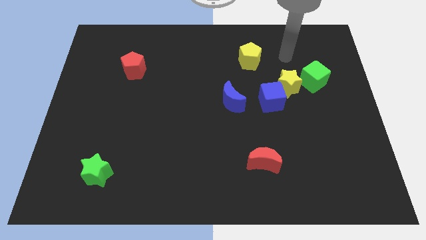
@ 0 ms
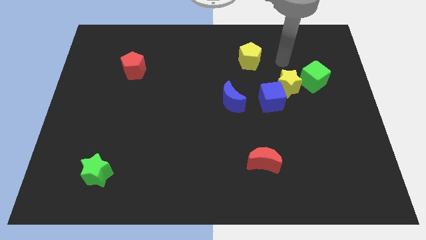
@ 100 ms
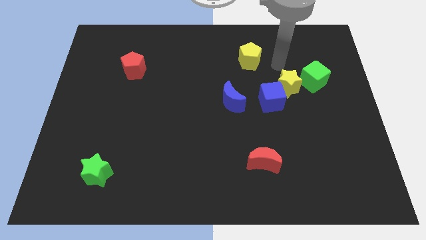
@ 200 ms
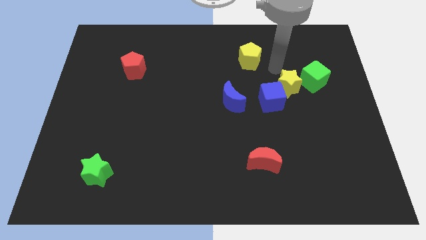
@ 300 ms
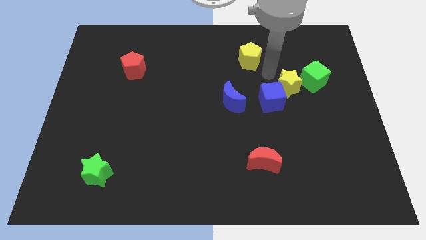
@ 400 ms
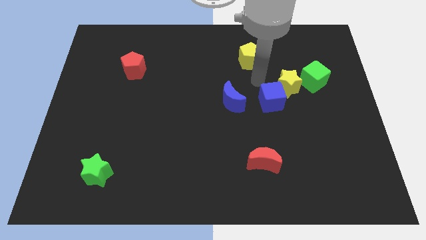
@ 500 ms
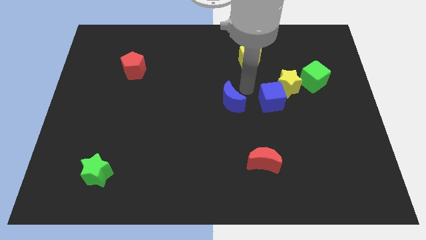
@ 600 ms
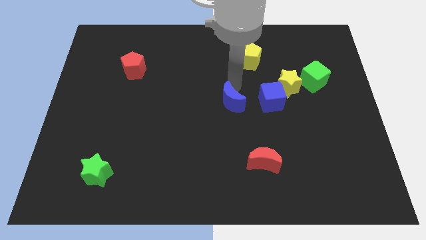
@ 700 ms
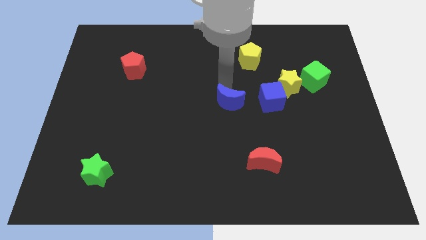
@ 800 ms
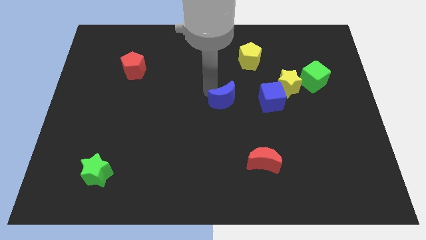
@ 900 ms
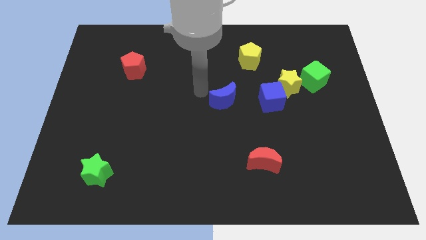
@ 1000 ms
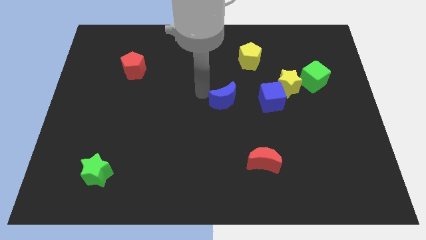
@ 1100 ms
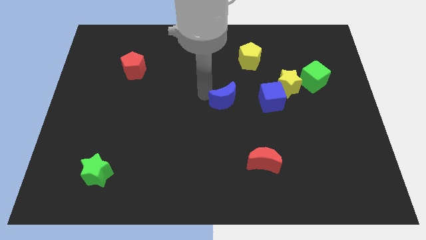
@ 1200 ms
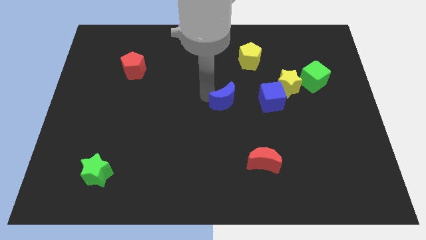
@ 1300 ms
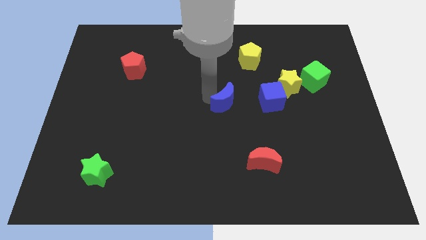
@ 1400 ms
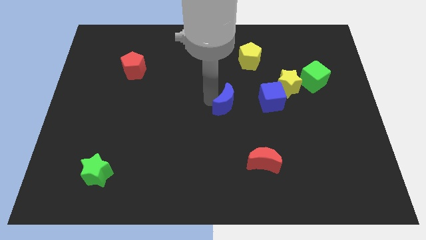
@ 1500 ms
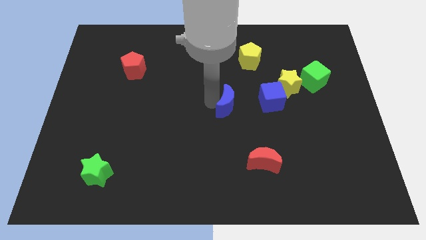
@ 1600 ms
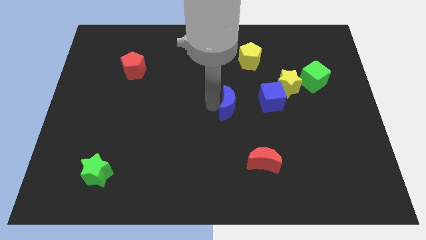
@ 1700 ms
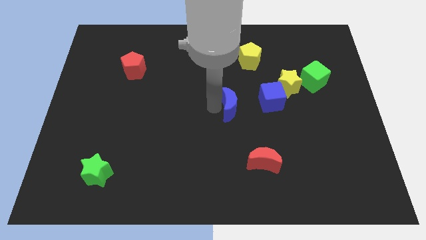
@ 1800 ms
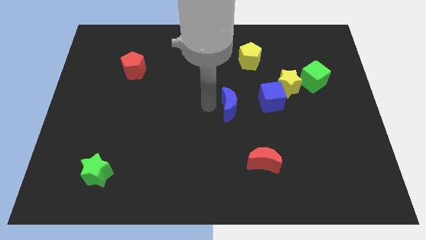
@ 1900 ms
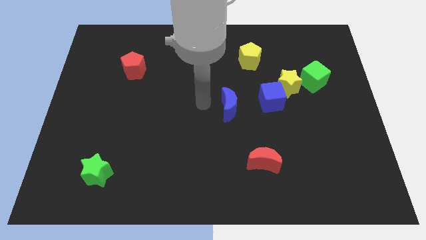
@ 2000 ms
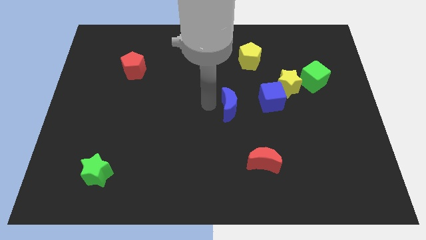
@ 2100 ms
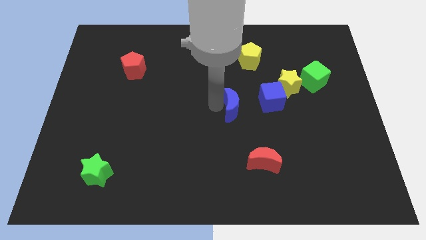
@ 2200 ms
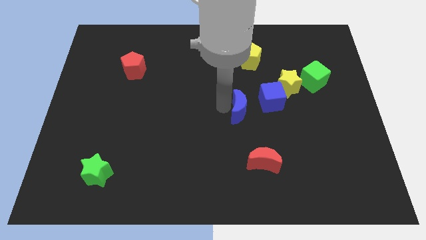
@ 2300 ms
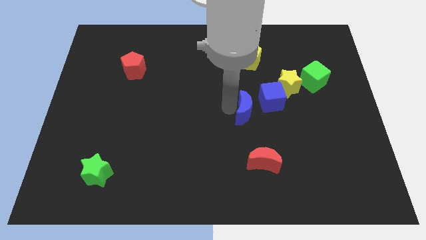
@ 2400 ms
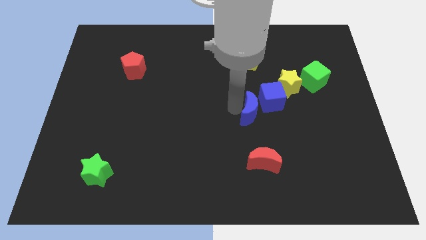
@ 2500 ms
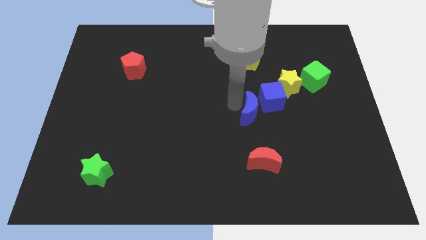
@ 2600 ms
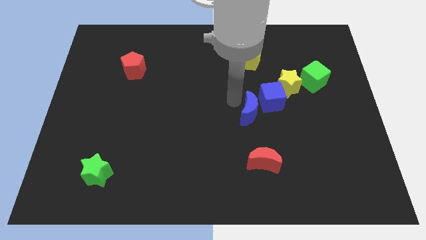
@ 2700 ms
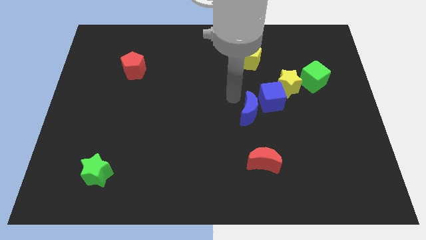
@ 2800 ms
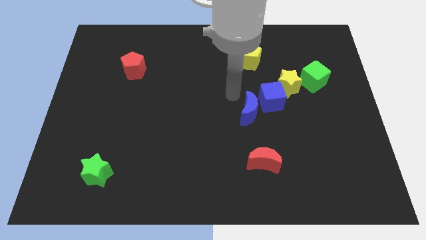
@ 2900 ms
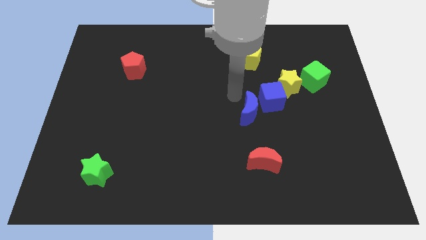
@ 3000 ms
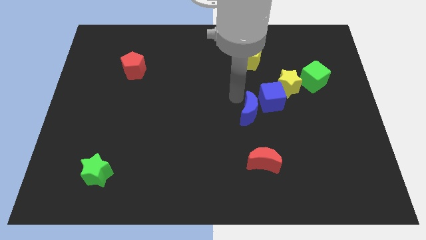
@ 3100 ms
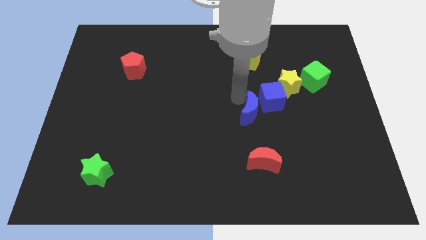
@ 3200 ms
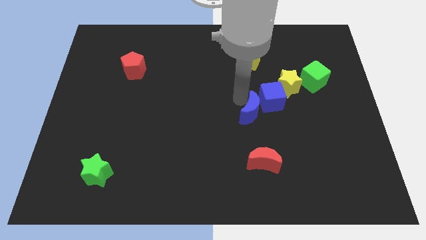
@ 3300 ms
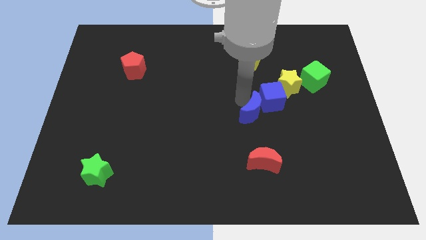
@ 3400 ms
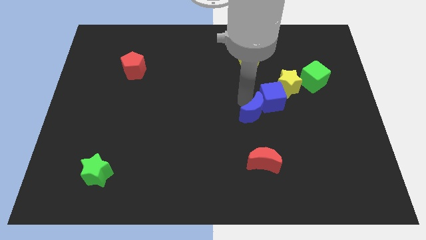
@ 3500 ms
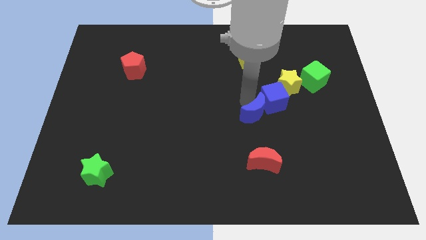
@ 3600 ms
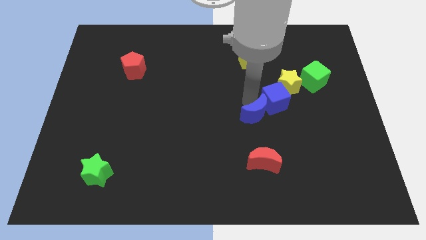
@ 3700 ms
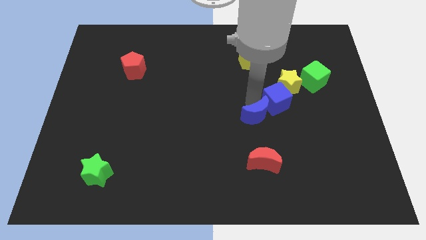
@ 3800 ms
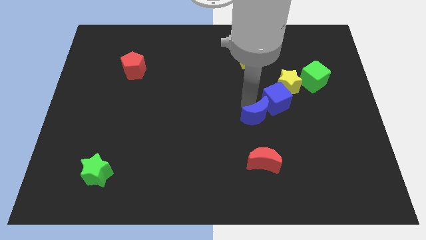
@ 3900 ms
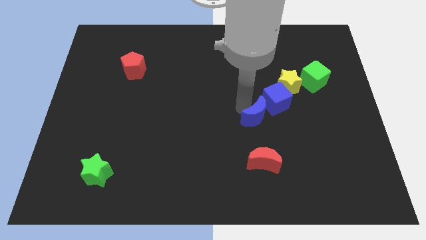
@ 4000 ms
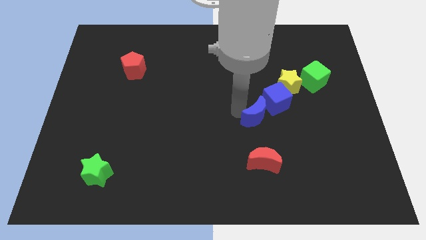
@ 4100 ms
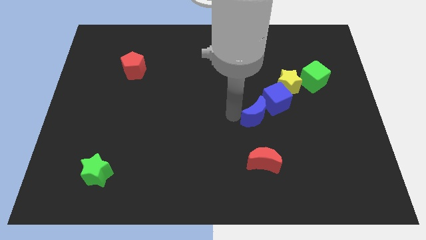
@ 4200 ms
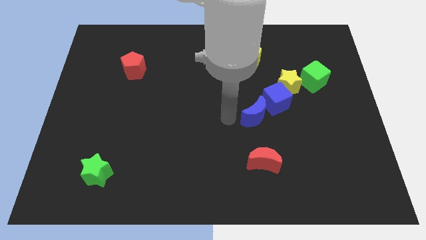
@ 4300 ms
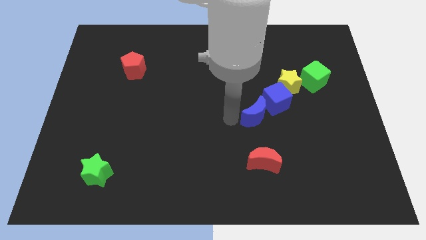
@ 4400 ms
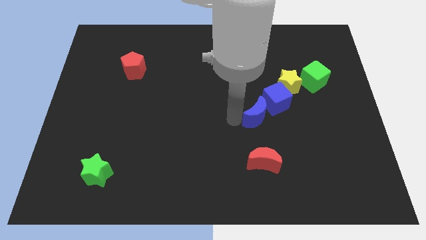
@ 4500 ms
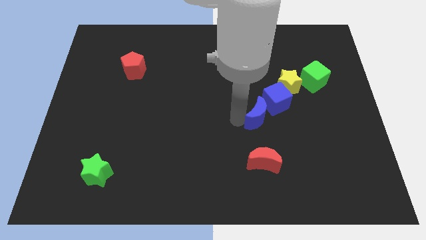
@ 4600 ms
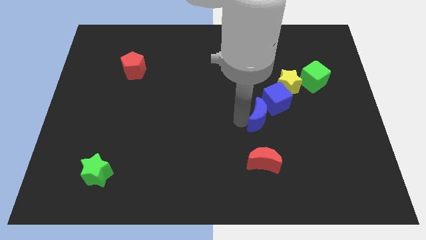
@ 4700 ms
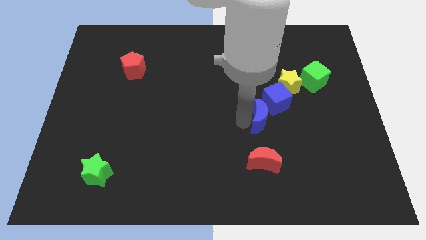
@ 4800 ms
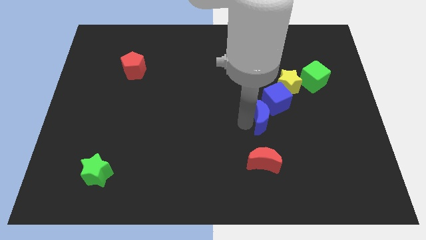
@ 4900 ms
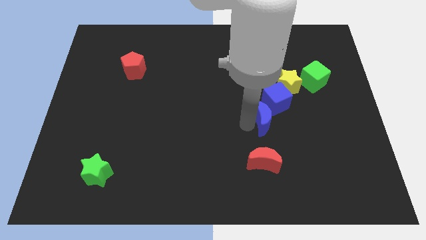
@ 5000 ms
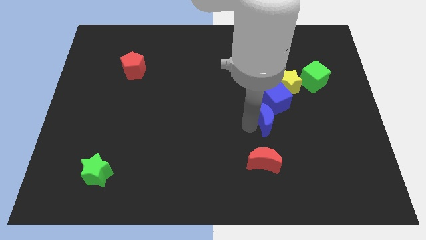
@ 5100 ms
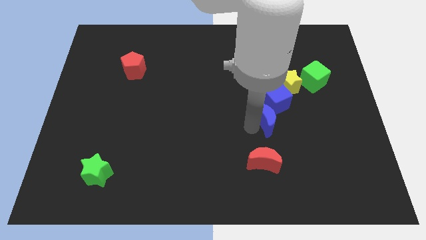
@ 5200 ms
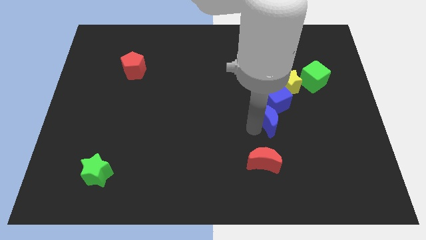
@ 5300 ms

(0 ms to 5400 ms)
slightly move the blue moon to the right

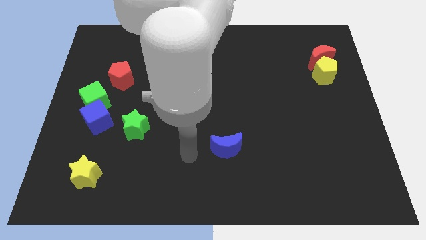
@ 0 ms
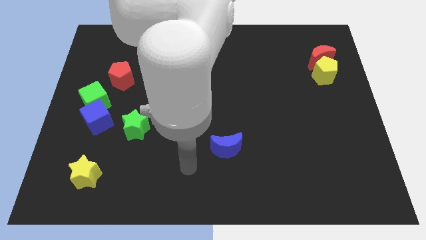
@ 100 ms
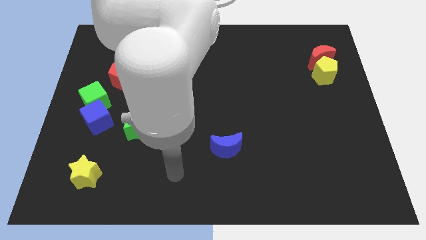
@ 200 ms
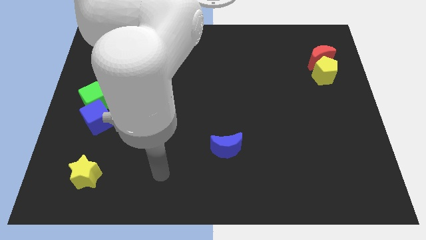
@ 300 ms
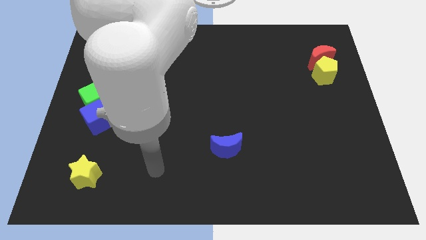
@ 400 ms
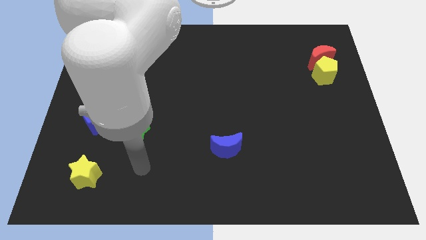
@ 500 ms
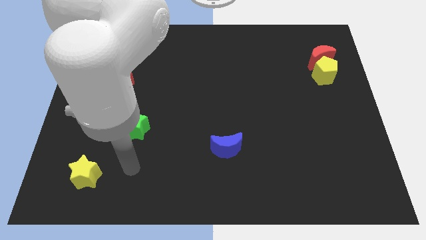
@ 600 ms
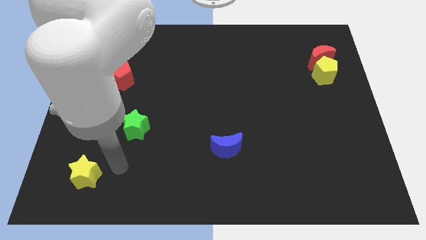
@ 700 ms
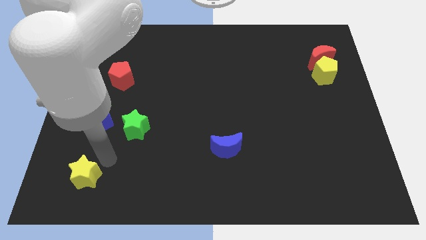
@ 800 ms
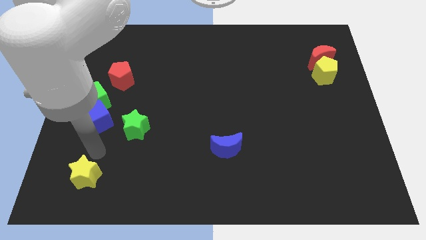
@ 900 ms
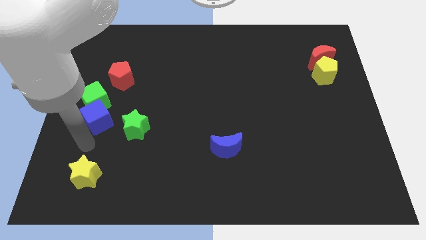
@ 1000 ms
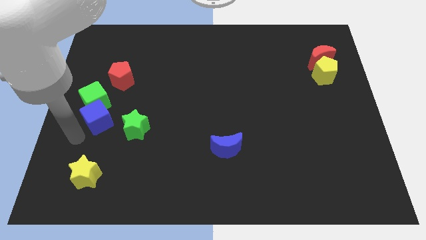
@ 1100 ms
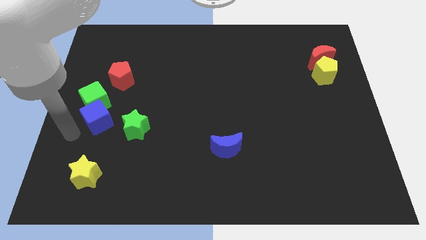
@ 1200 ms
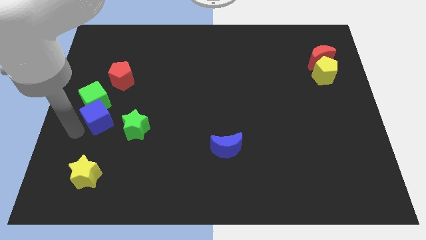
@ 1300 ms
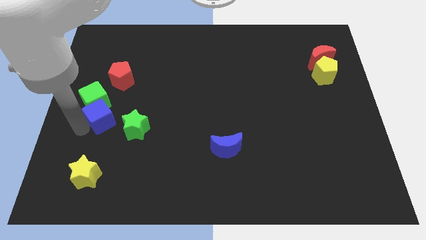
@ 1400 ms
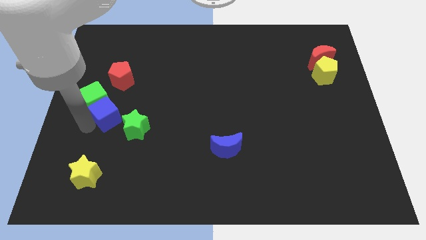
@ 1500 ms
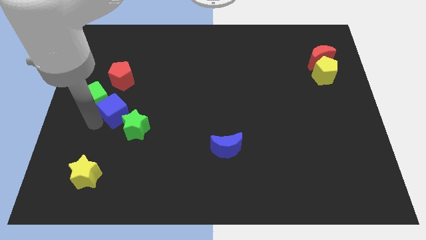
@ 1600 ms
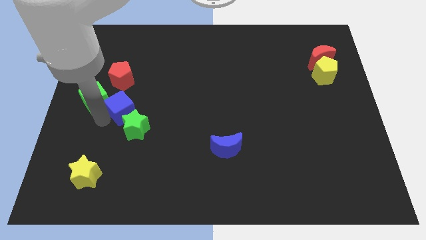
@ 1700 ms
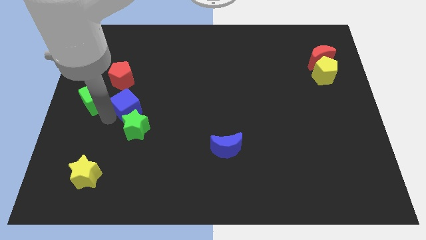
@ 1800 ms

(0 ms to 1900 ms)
move the blue cube upwards and then right a little bit

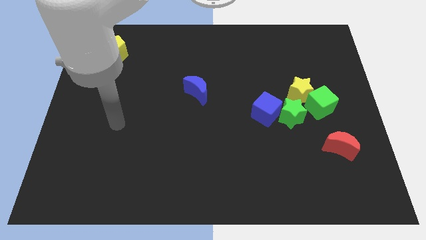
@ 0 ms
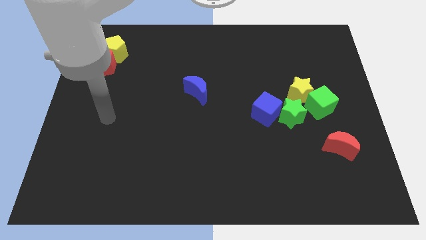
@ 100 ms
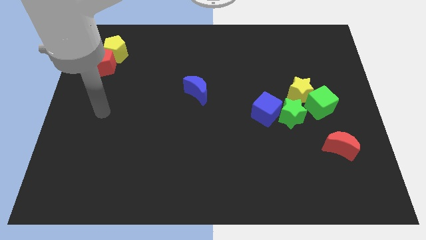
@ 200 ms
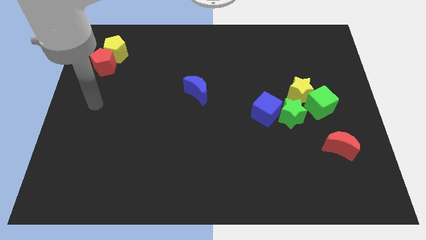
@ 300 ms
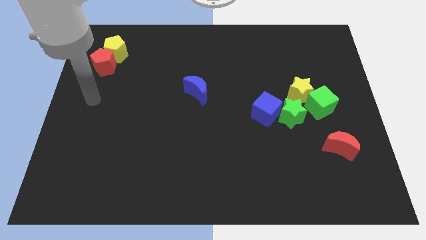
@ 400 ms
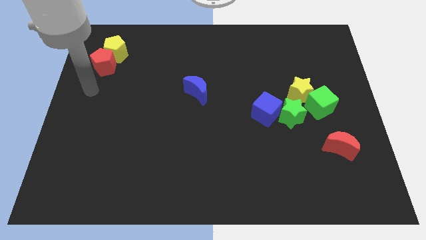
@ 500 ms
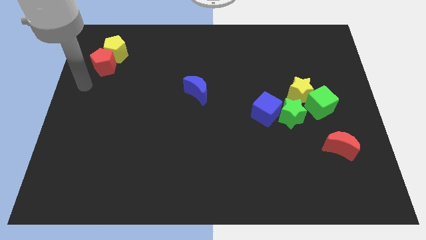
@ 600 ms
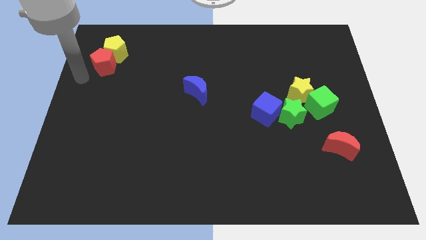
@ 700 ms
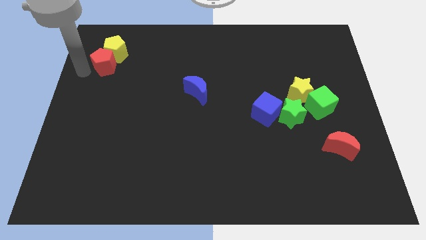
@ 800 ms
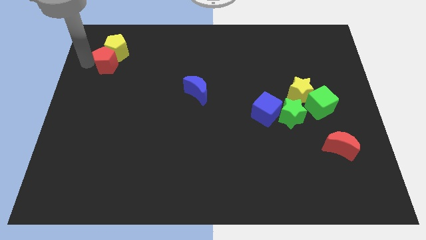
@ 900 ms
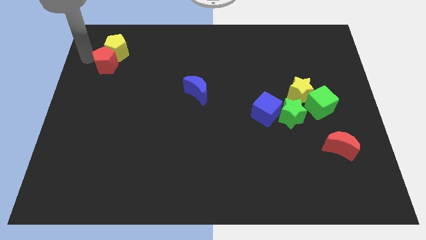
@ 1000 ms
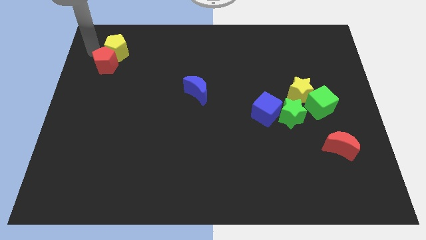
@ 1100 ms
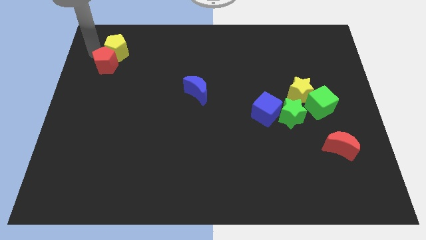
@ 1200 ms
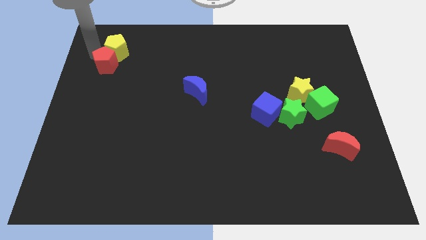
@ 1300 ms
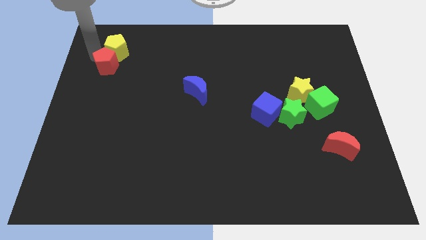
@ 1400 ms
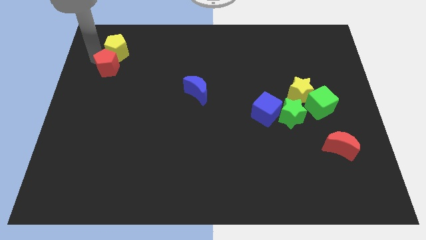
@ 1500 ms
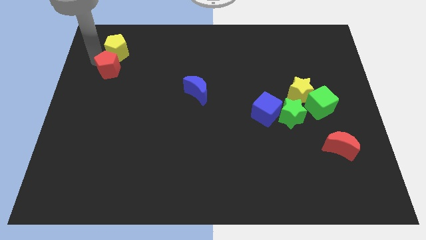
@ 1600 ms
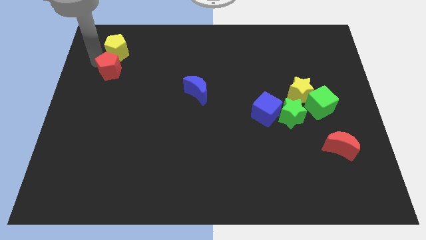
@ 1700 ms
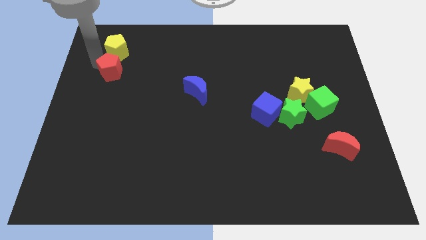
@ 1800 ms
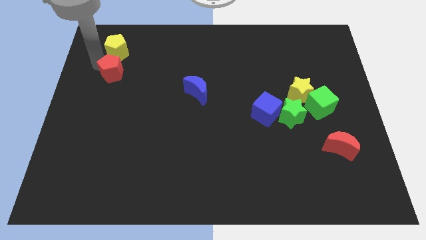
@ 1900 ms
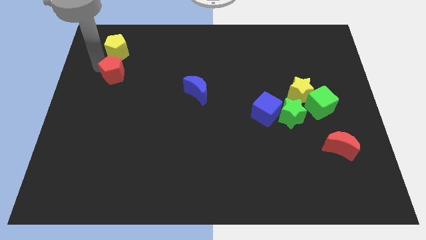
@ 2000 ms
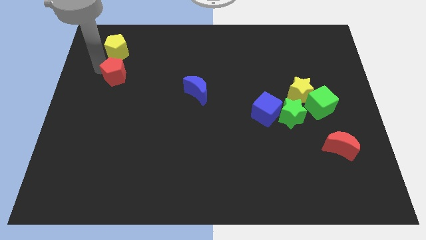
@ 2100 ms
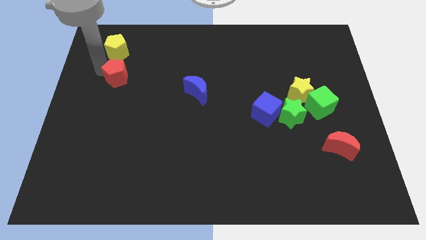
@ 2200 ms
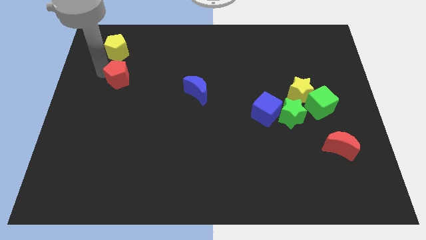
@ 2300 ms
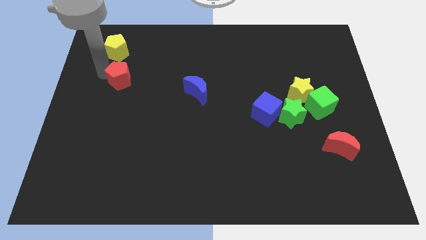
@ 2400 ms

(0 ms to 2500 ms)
slightly push the red pentagon downwards and right
